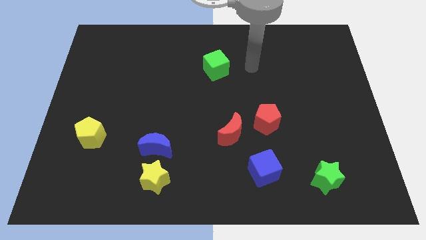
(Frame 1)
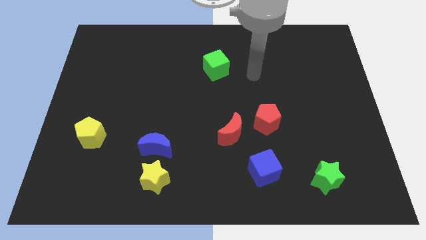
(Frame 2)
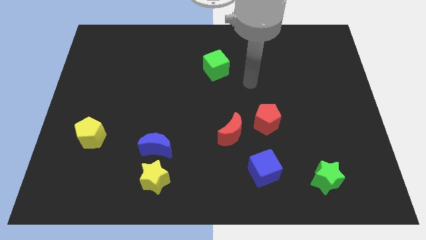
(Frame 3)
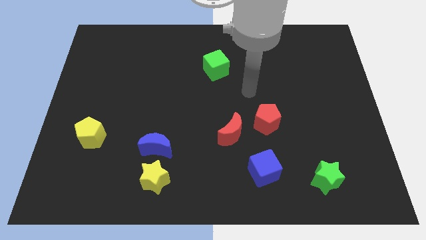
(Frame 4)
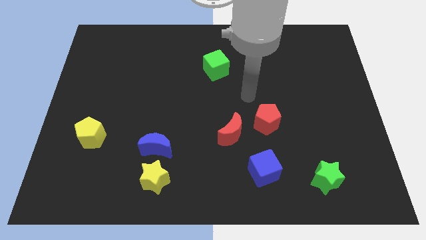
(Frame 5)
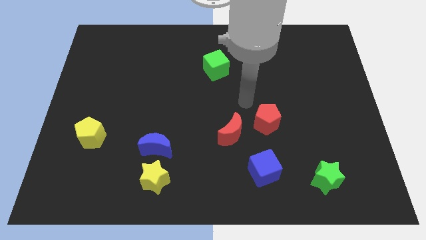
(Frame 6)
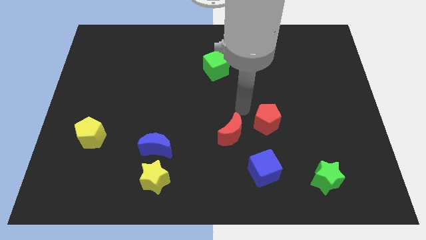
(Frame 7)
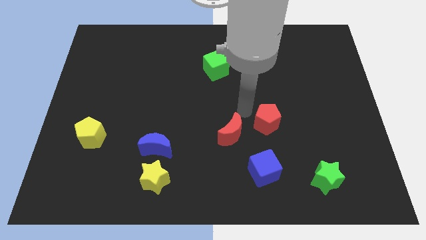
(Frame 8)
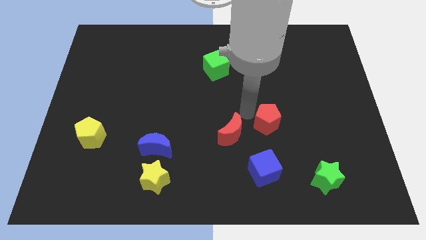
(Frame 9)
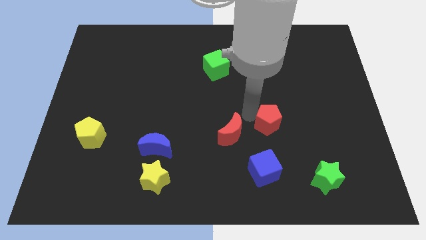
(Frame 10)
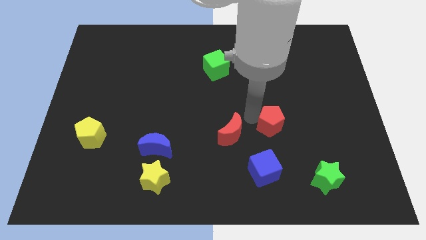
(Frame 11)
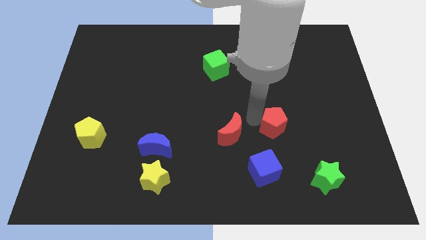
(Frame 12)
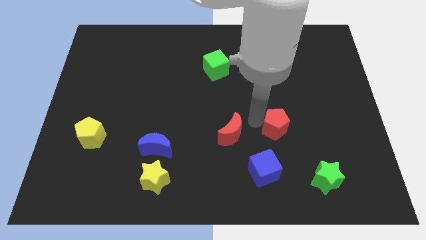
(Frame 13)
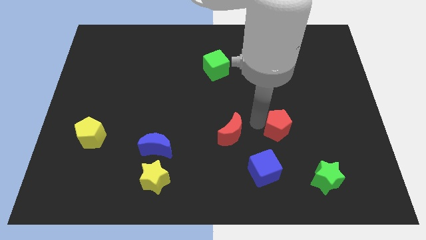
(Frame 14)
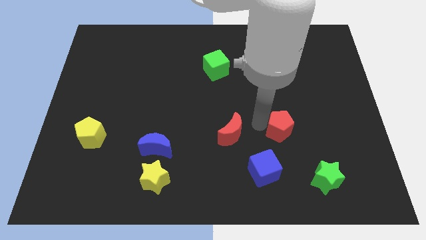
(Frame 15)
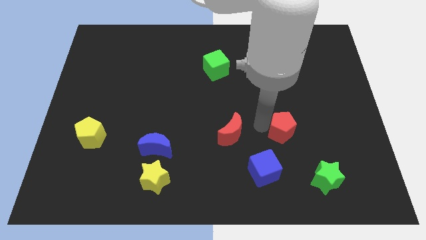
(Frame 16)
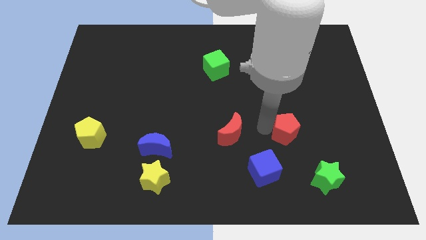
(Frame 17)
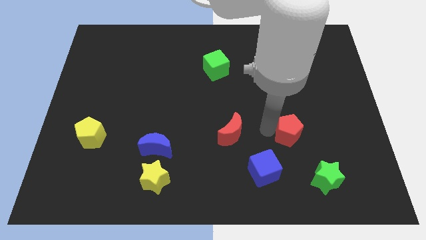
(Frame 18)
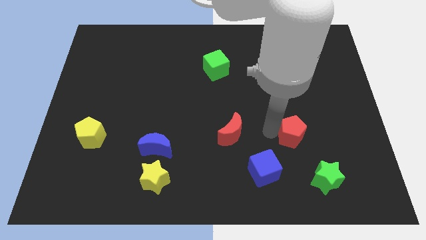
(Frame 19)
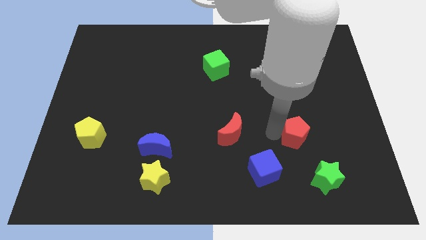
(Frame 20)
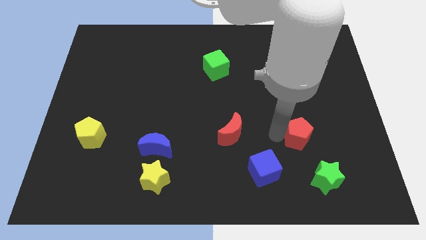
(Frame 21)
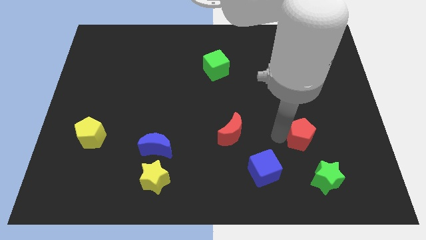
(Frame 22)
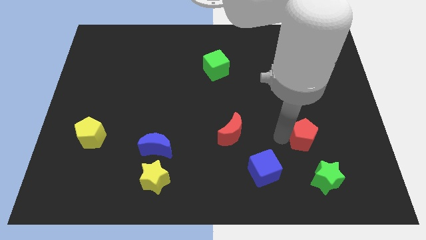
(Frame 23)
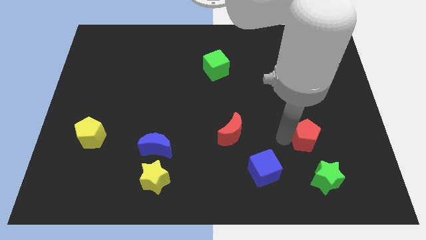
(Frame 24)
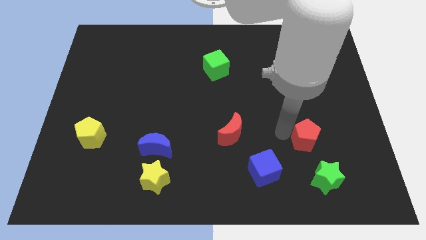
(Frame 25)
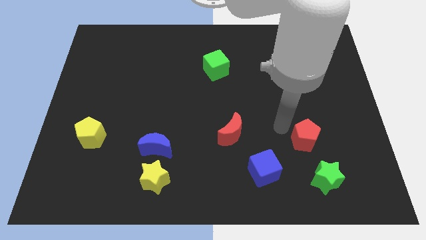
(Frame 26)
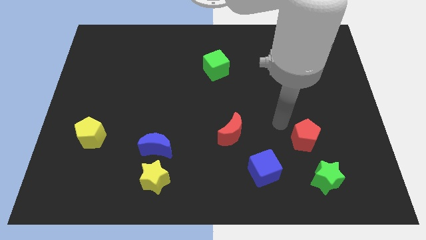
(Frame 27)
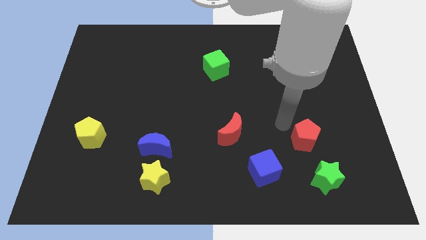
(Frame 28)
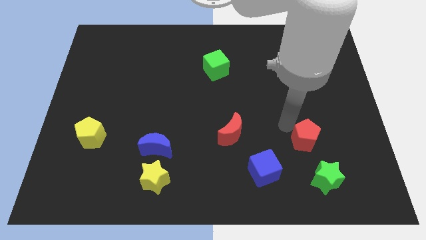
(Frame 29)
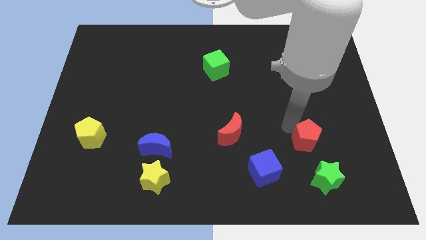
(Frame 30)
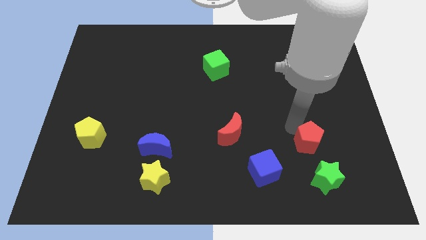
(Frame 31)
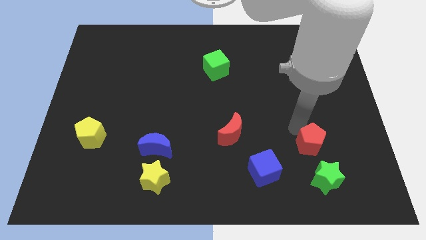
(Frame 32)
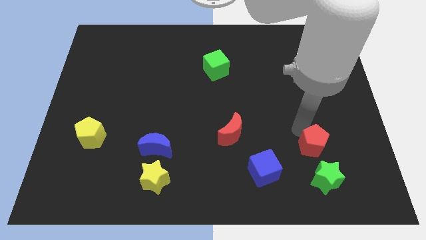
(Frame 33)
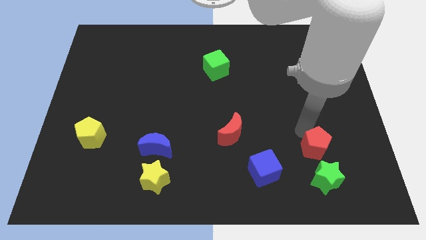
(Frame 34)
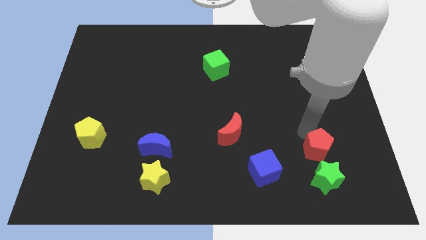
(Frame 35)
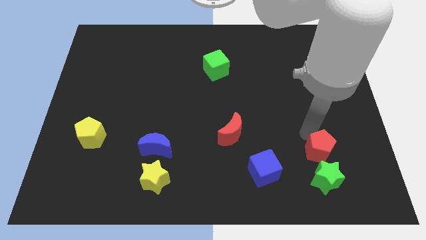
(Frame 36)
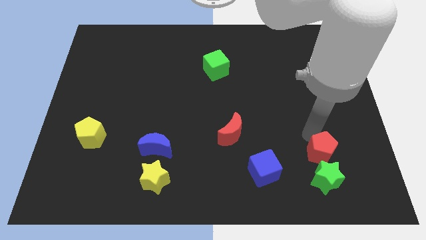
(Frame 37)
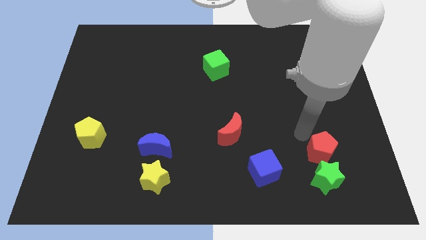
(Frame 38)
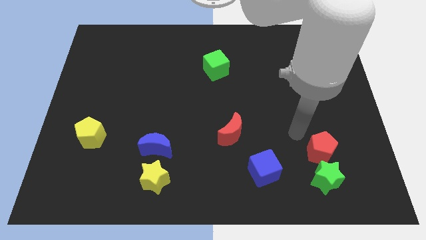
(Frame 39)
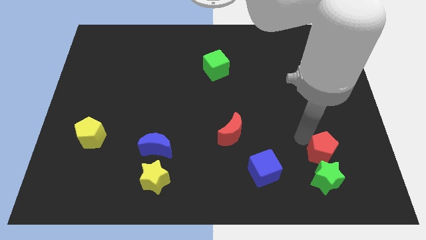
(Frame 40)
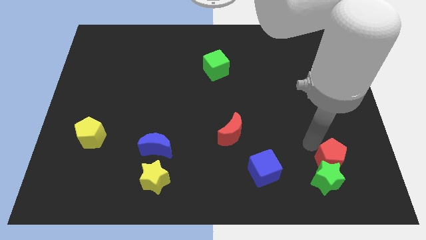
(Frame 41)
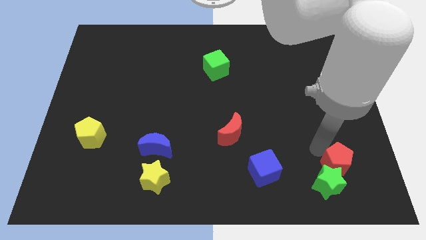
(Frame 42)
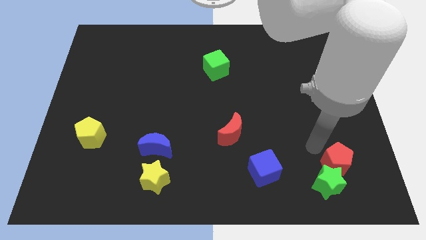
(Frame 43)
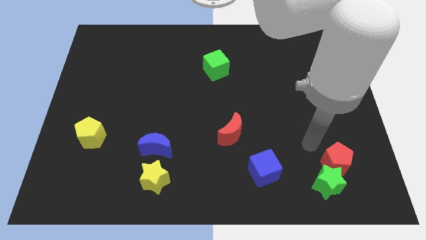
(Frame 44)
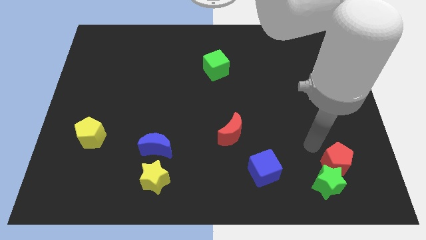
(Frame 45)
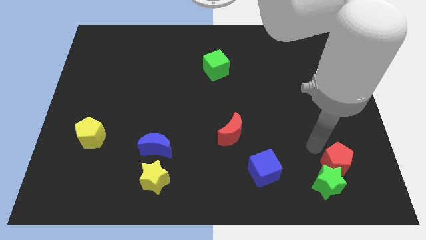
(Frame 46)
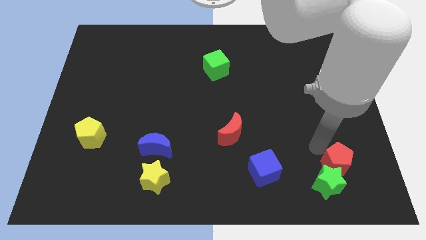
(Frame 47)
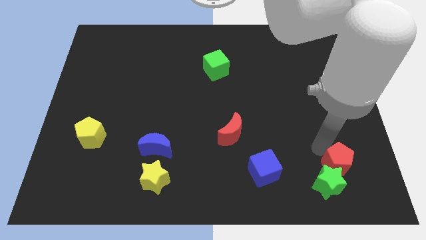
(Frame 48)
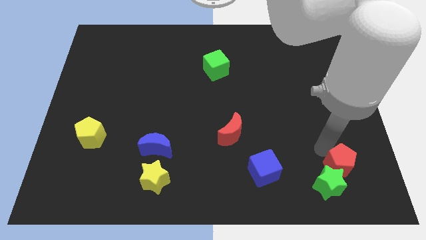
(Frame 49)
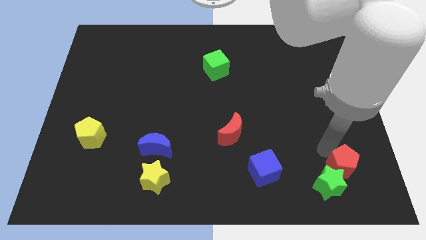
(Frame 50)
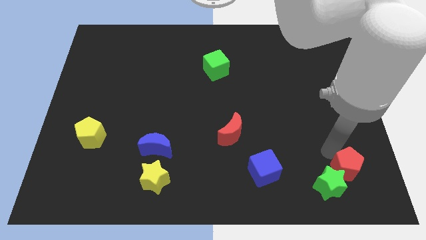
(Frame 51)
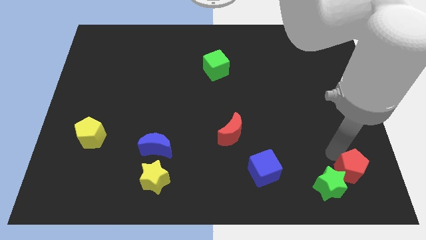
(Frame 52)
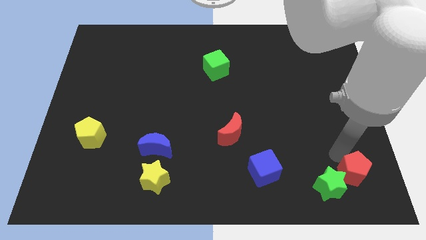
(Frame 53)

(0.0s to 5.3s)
put the red pentagon to the bottom right of the board

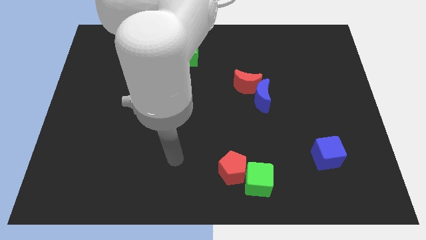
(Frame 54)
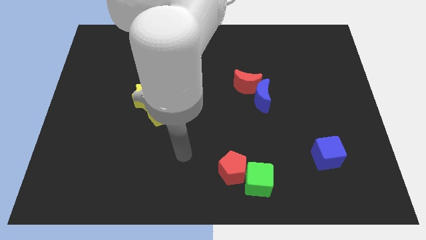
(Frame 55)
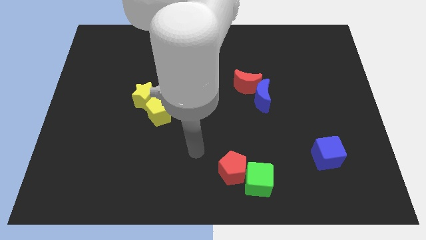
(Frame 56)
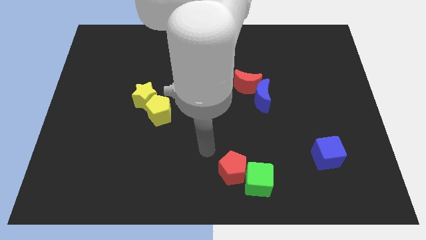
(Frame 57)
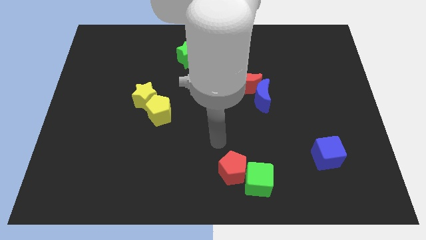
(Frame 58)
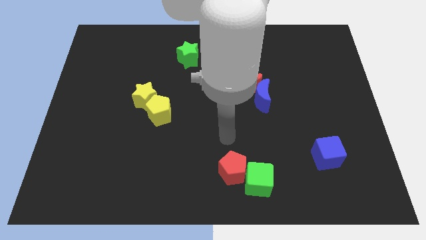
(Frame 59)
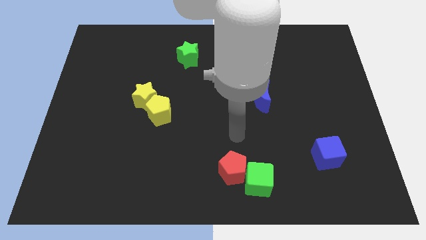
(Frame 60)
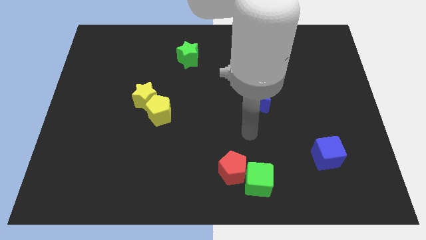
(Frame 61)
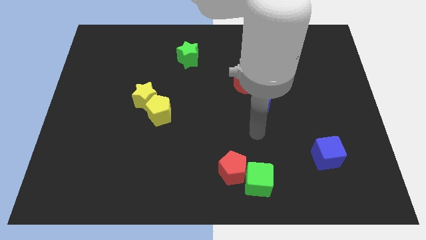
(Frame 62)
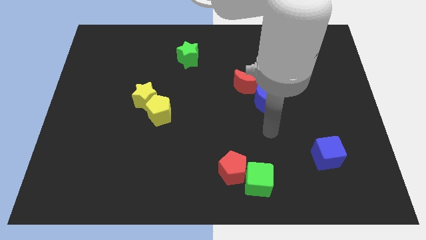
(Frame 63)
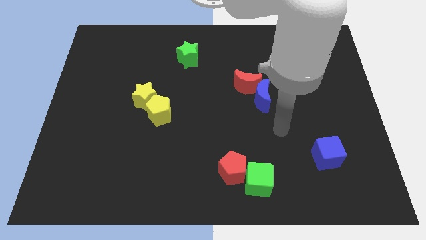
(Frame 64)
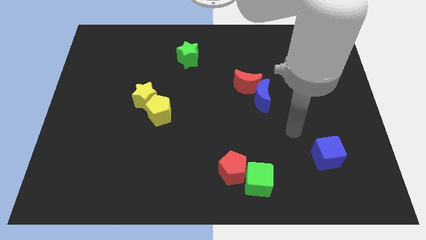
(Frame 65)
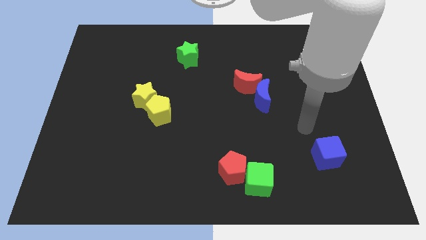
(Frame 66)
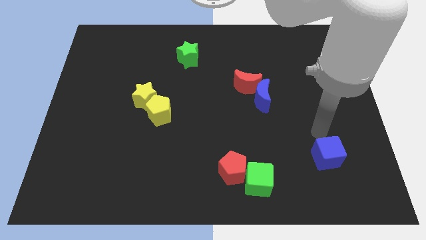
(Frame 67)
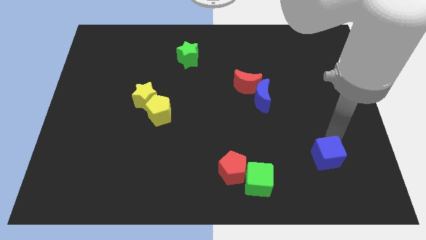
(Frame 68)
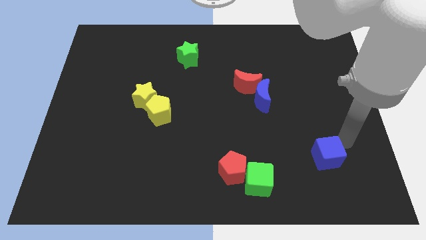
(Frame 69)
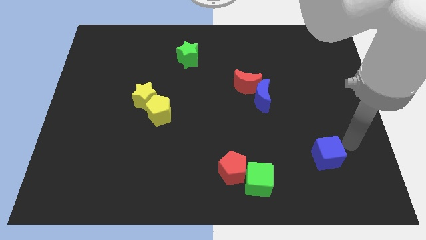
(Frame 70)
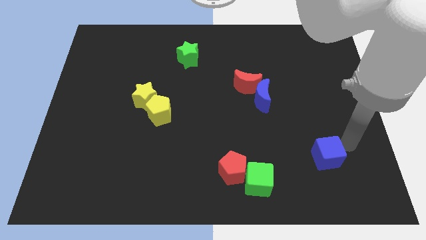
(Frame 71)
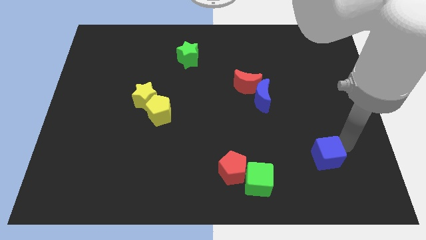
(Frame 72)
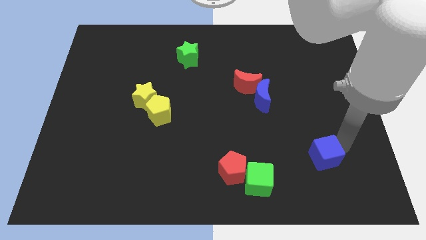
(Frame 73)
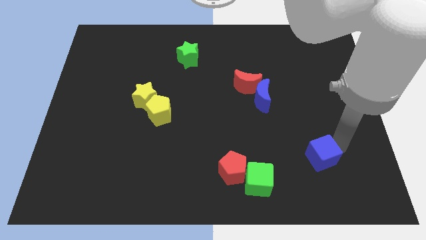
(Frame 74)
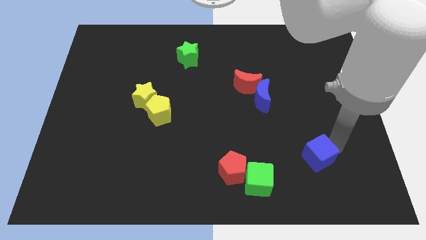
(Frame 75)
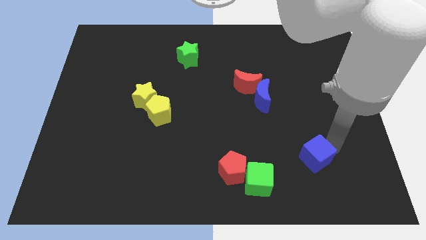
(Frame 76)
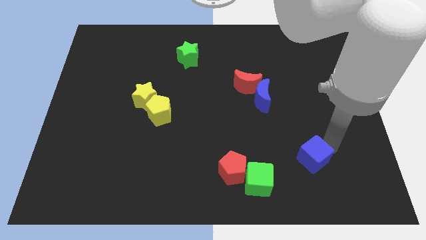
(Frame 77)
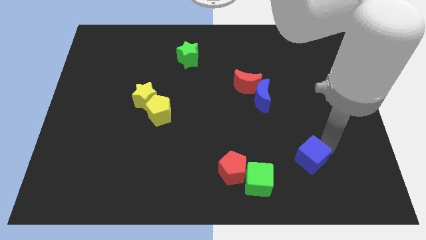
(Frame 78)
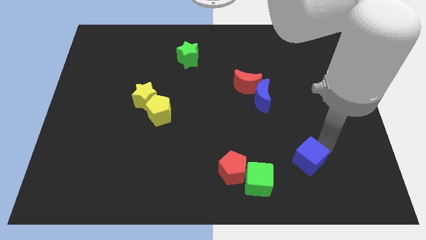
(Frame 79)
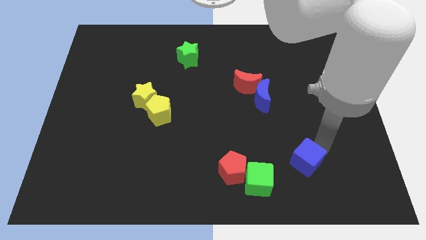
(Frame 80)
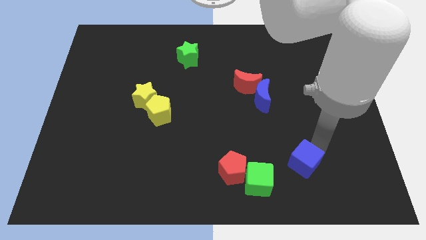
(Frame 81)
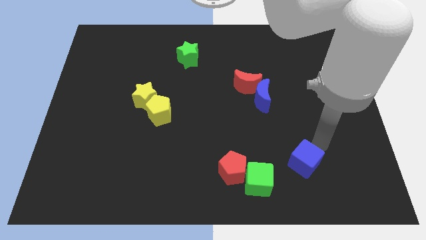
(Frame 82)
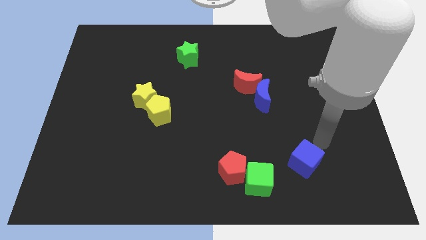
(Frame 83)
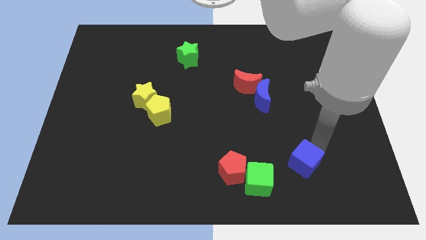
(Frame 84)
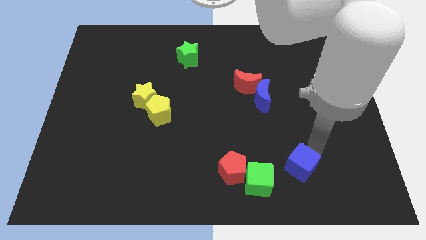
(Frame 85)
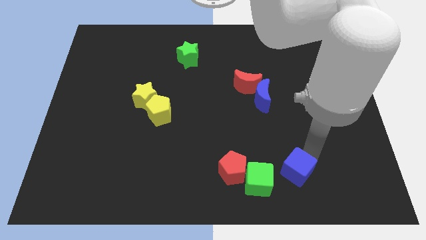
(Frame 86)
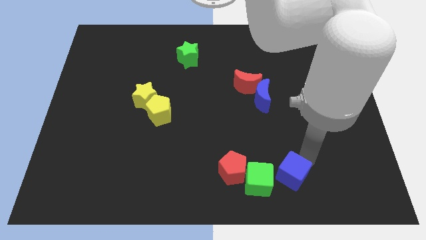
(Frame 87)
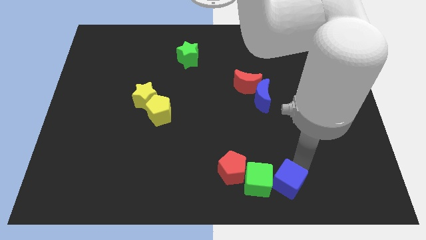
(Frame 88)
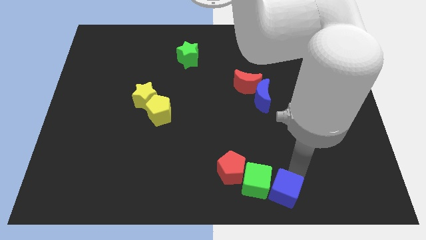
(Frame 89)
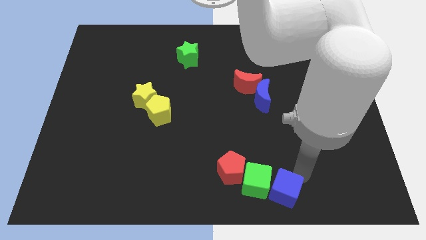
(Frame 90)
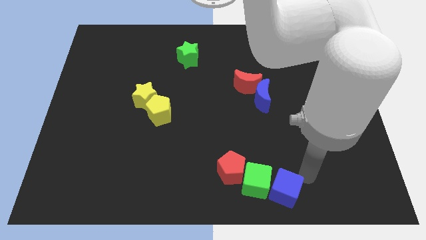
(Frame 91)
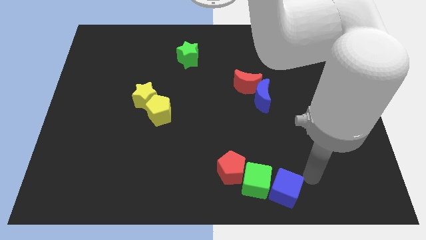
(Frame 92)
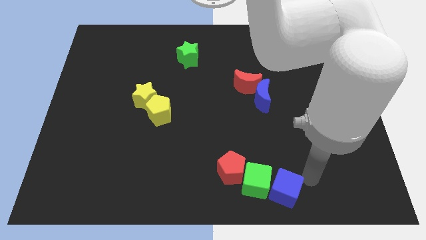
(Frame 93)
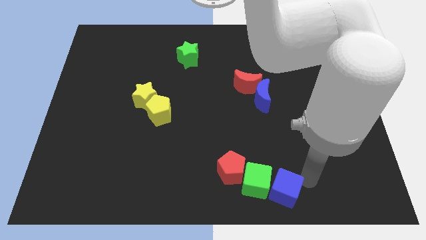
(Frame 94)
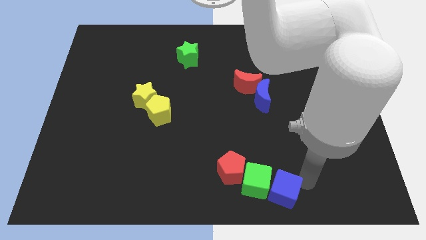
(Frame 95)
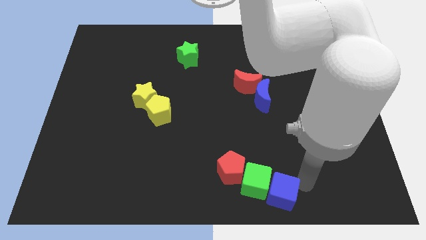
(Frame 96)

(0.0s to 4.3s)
move the blue cube to the bottom
